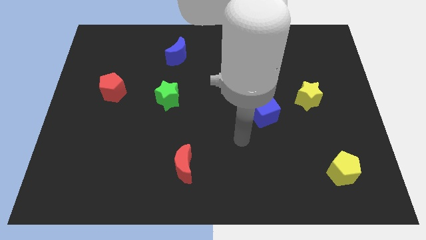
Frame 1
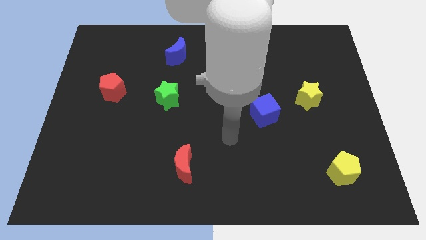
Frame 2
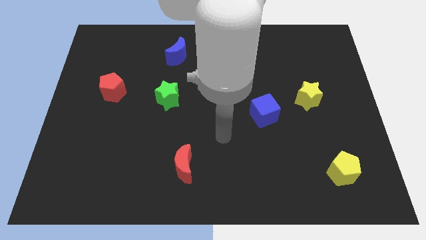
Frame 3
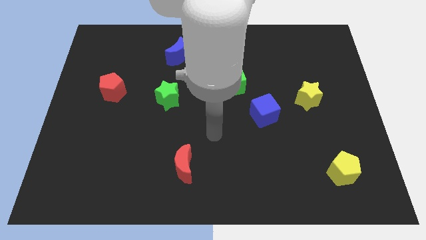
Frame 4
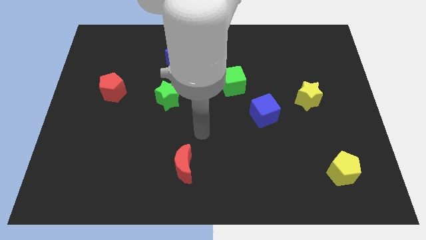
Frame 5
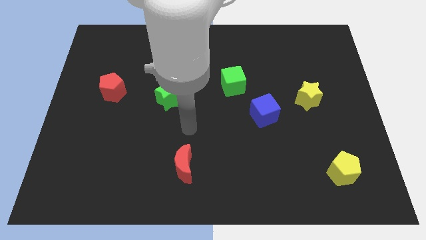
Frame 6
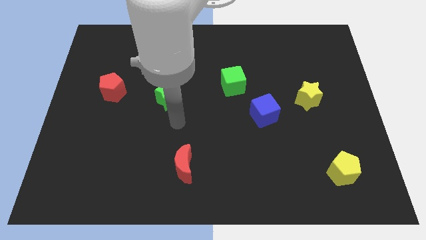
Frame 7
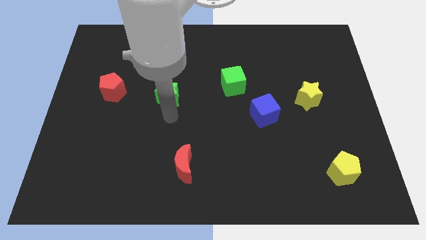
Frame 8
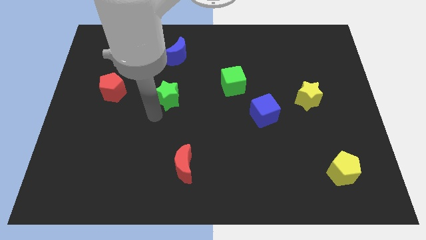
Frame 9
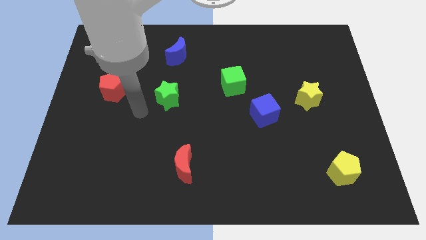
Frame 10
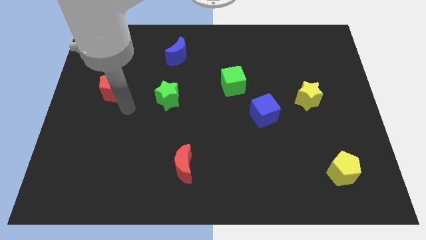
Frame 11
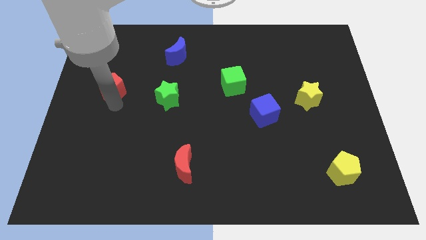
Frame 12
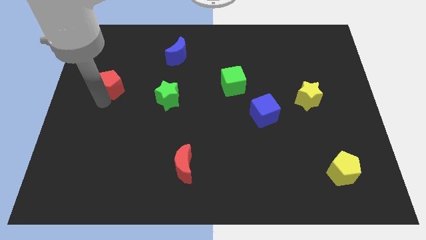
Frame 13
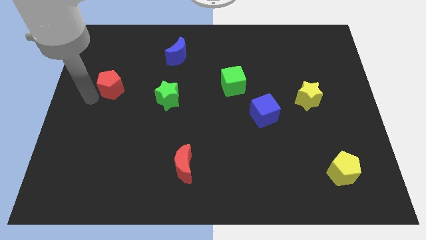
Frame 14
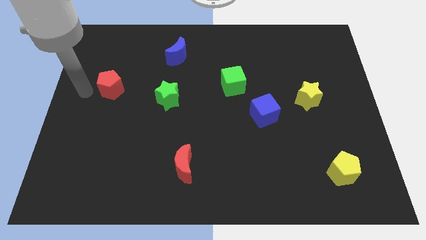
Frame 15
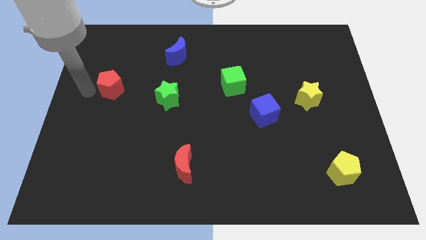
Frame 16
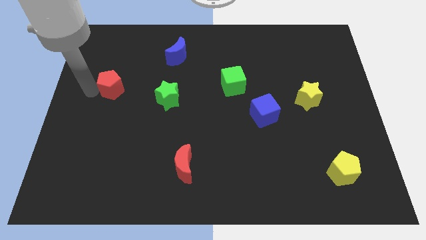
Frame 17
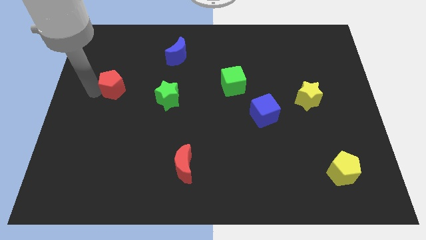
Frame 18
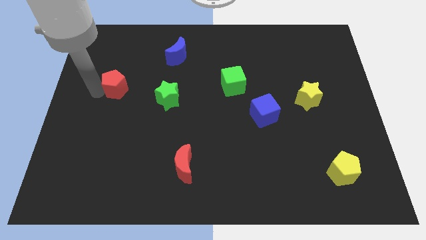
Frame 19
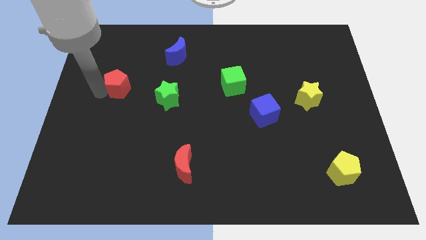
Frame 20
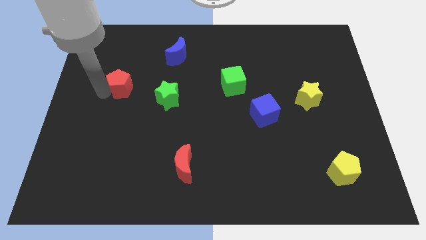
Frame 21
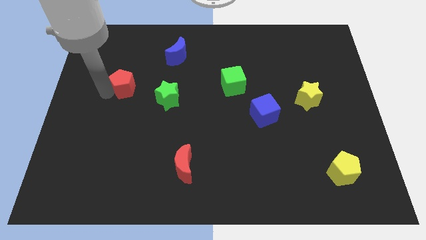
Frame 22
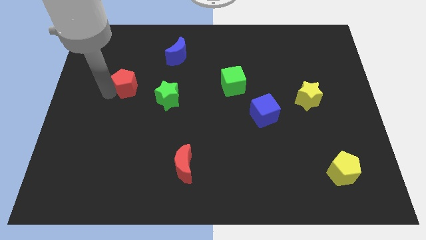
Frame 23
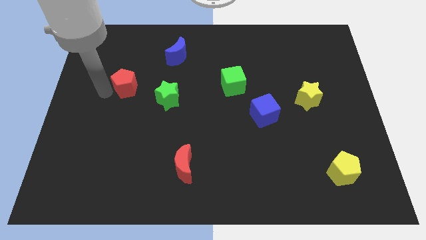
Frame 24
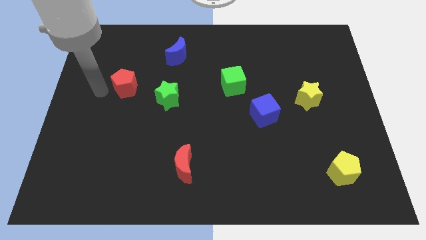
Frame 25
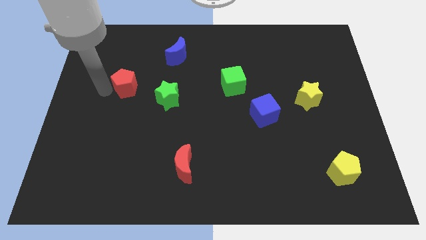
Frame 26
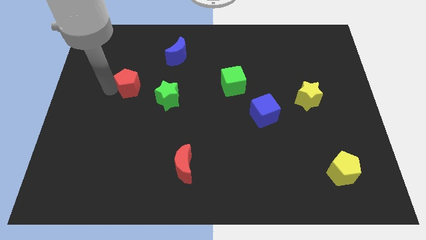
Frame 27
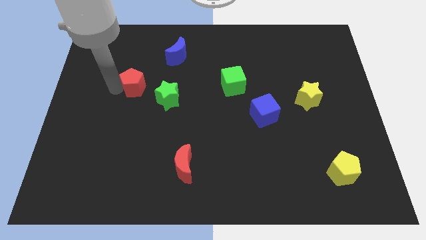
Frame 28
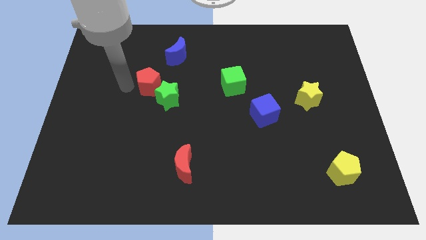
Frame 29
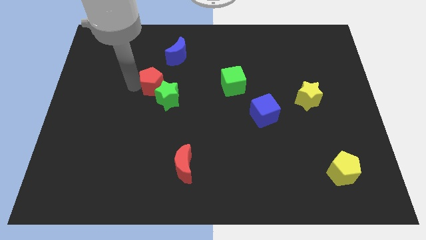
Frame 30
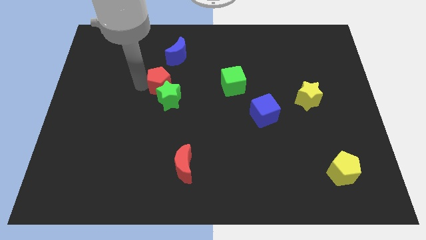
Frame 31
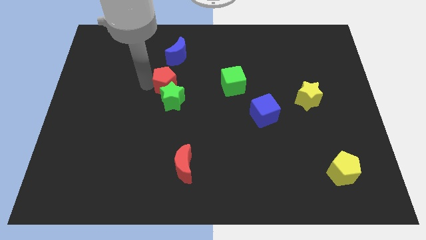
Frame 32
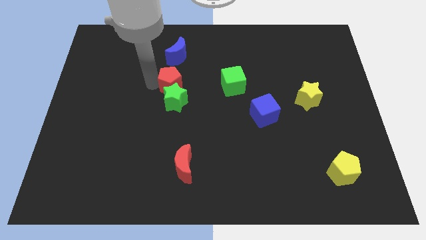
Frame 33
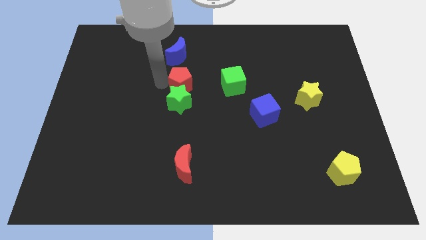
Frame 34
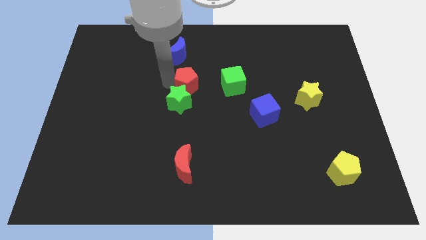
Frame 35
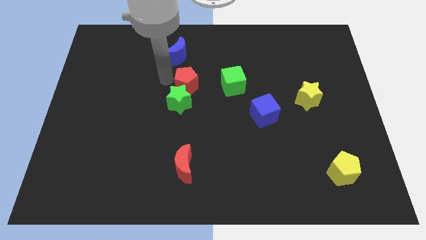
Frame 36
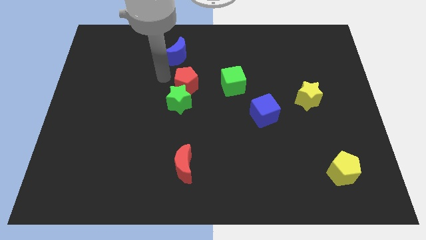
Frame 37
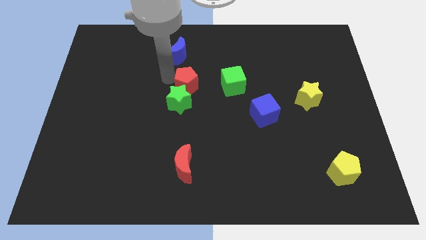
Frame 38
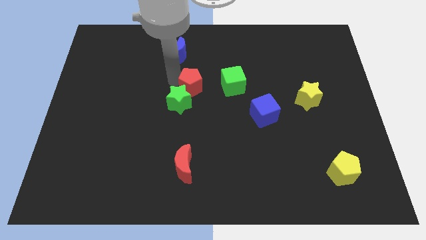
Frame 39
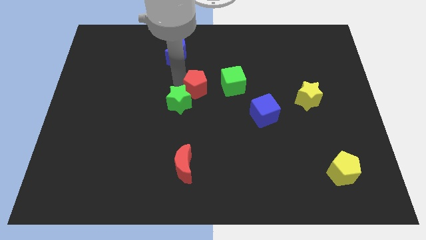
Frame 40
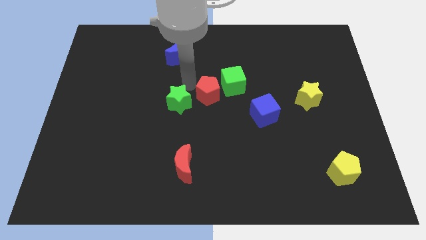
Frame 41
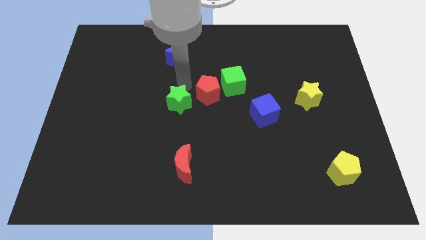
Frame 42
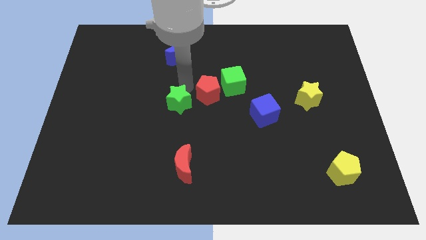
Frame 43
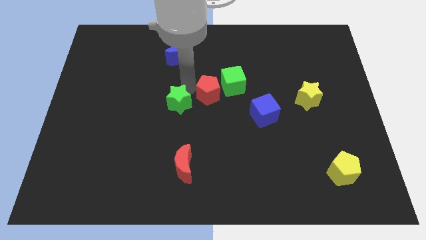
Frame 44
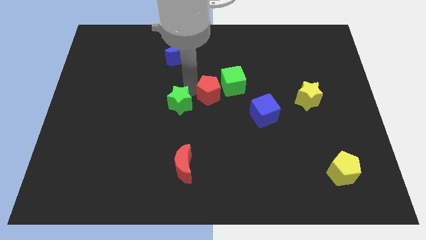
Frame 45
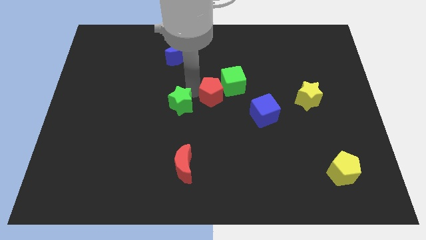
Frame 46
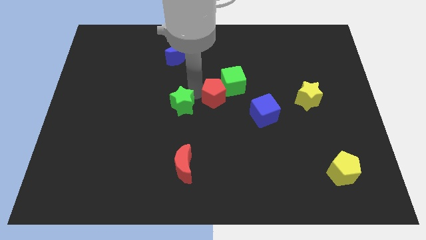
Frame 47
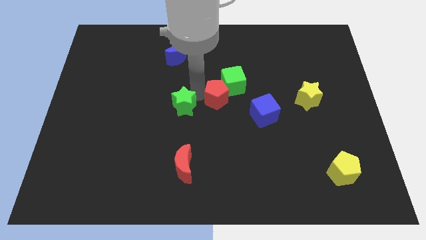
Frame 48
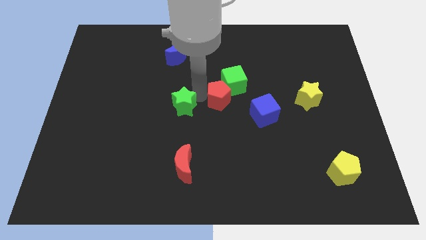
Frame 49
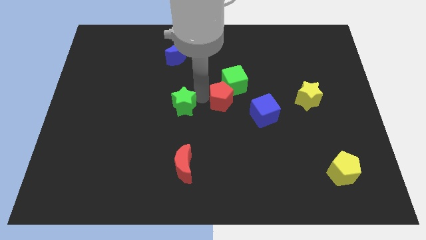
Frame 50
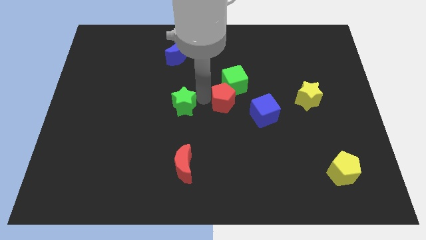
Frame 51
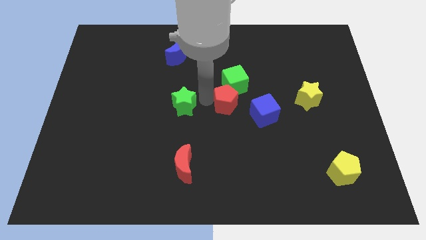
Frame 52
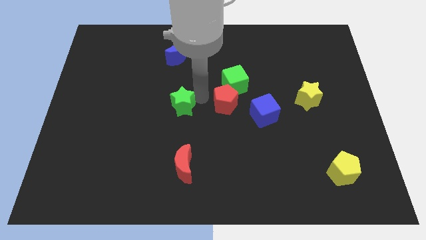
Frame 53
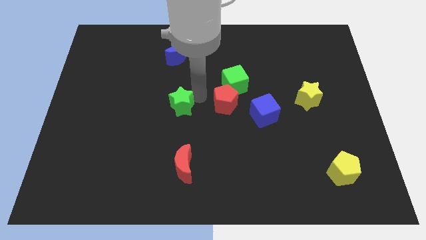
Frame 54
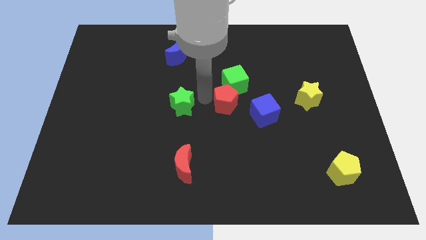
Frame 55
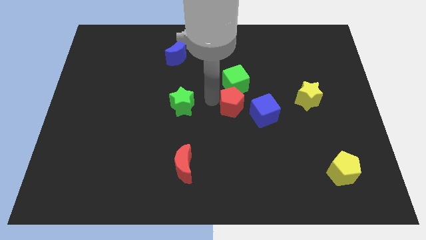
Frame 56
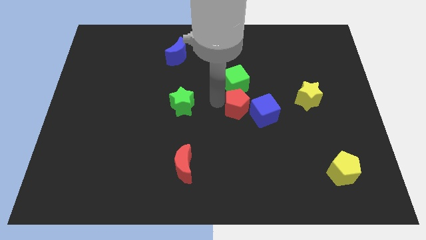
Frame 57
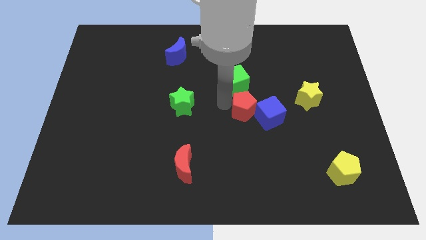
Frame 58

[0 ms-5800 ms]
slide the red pentagon to the blue cube
